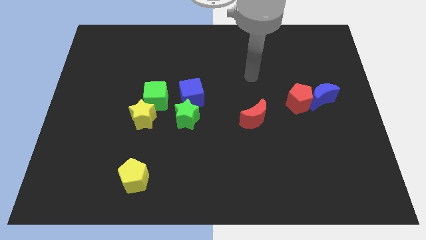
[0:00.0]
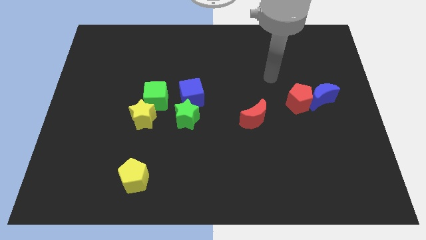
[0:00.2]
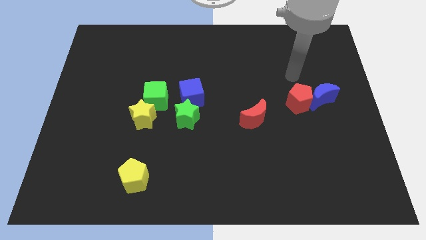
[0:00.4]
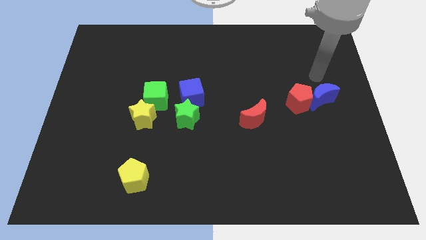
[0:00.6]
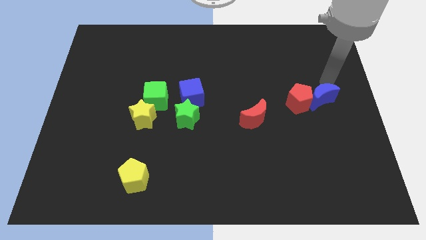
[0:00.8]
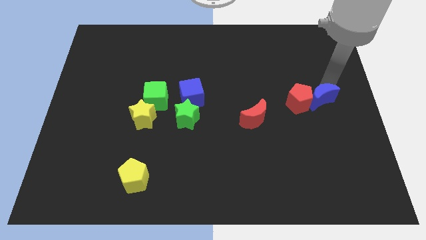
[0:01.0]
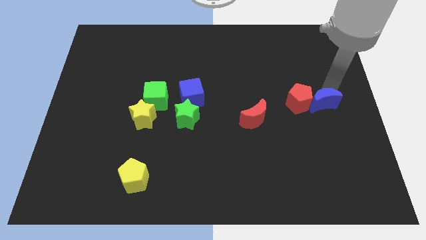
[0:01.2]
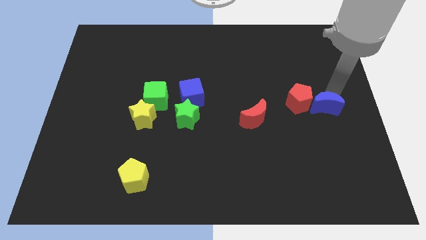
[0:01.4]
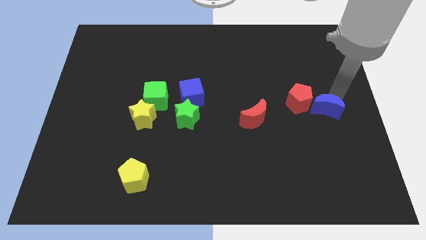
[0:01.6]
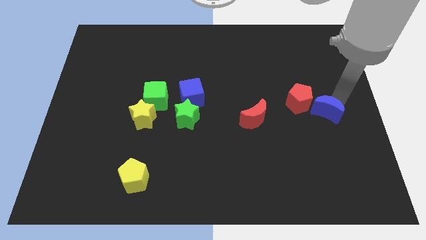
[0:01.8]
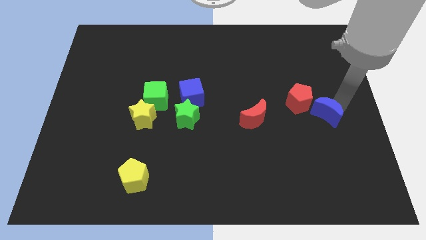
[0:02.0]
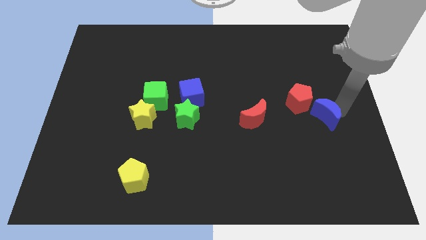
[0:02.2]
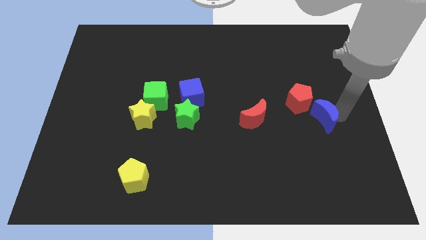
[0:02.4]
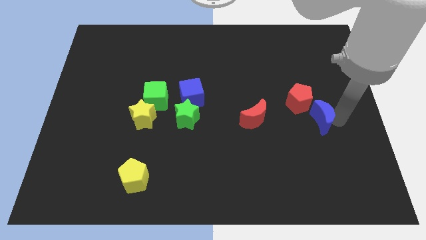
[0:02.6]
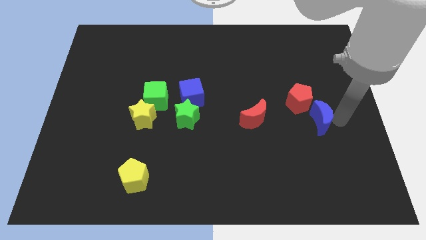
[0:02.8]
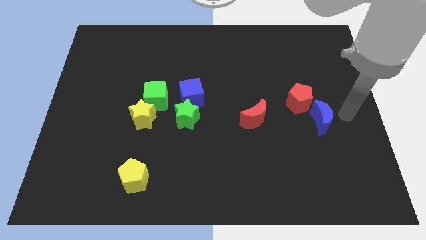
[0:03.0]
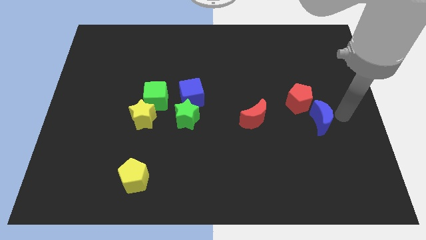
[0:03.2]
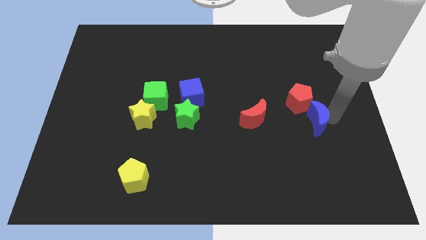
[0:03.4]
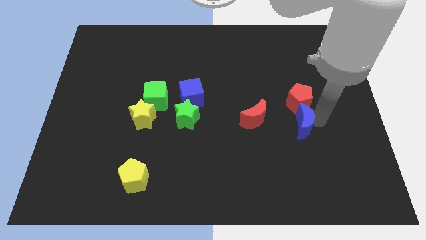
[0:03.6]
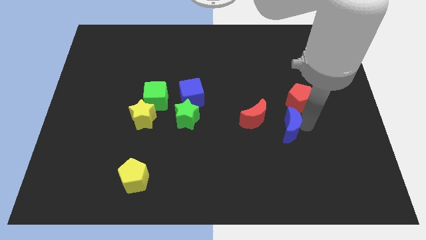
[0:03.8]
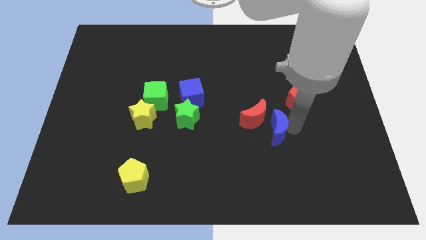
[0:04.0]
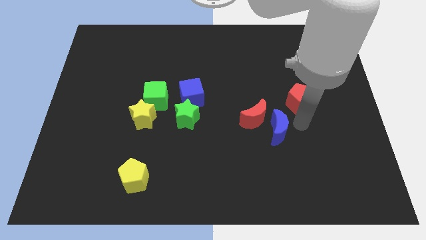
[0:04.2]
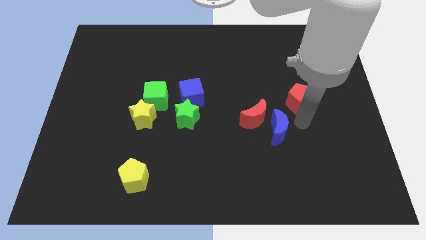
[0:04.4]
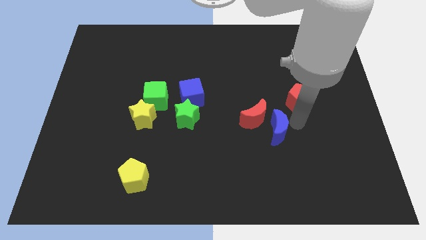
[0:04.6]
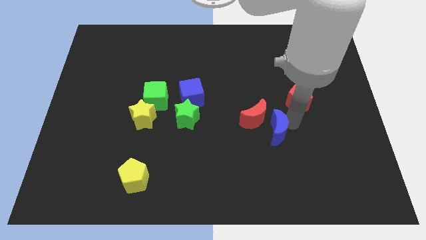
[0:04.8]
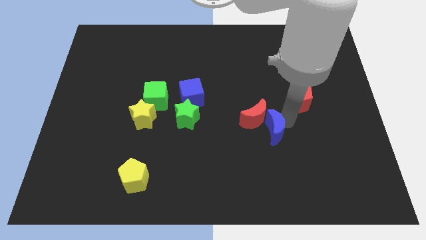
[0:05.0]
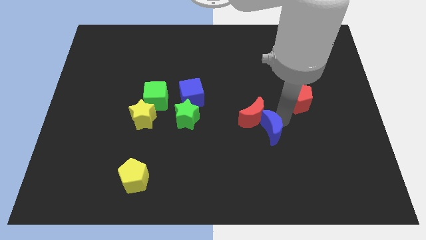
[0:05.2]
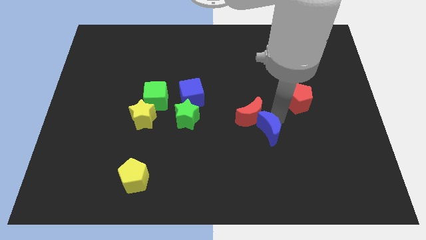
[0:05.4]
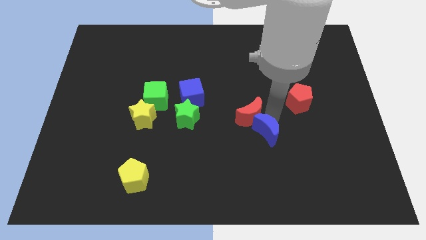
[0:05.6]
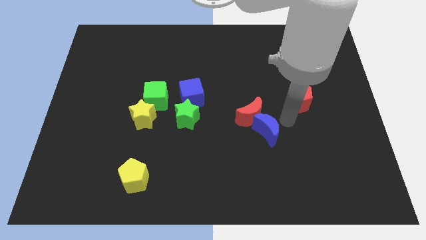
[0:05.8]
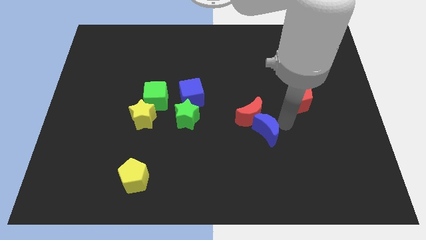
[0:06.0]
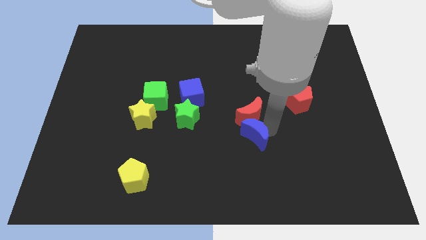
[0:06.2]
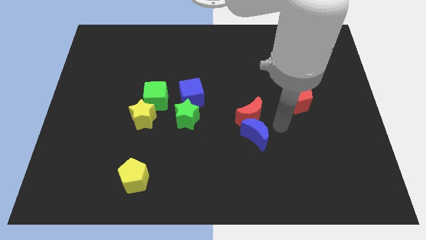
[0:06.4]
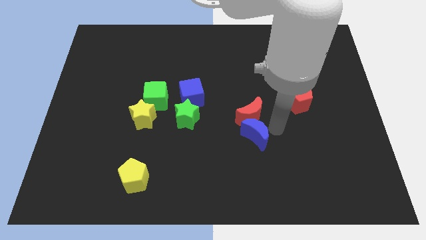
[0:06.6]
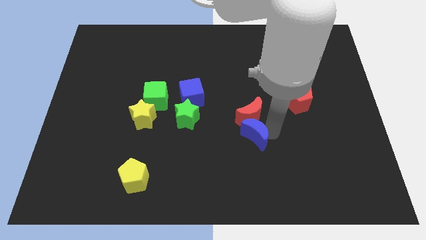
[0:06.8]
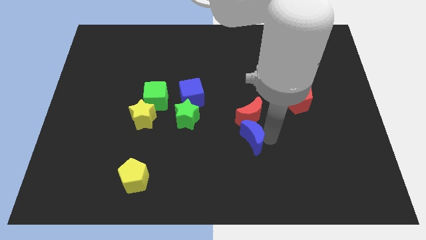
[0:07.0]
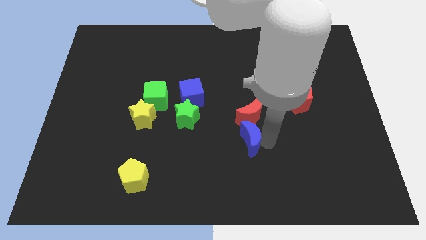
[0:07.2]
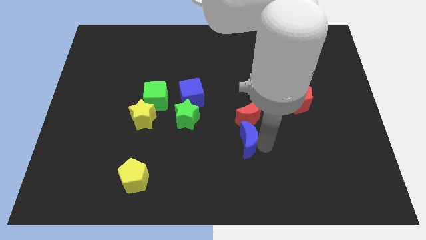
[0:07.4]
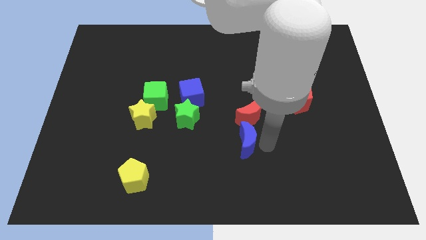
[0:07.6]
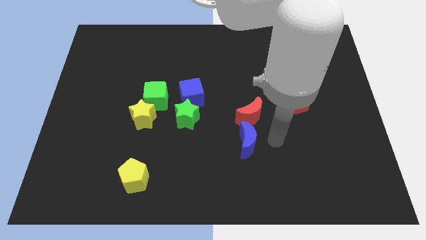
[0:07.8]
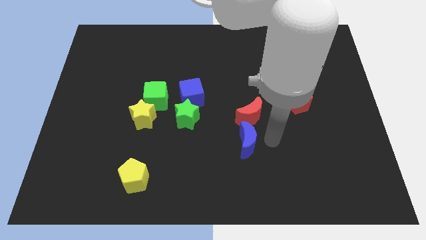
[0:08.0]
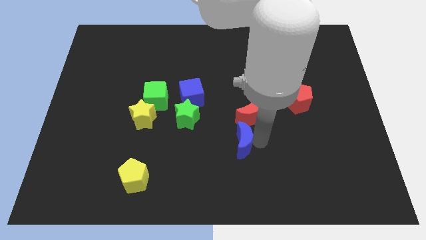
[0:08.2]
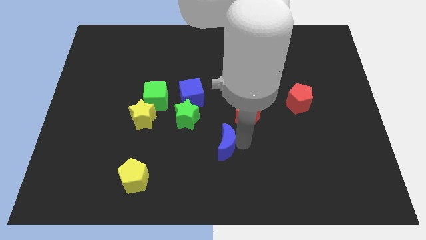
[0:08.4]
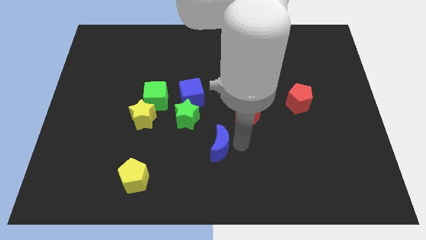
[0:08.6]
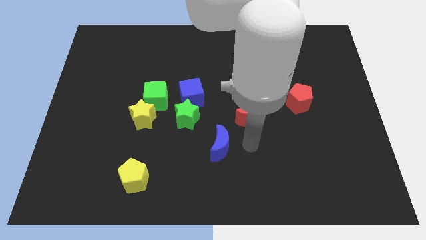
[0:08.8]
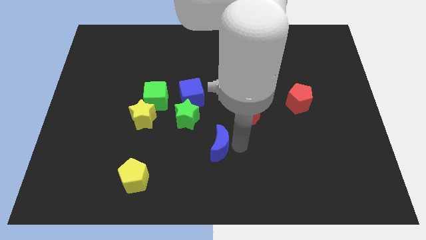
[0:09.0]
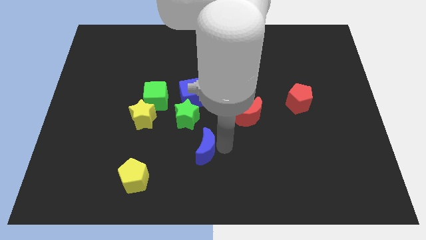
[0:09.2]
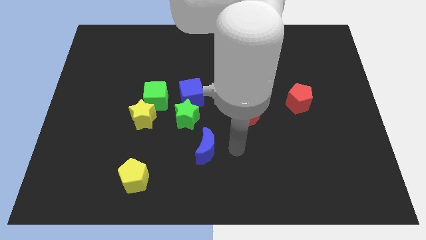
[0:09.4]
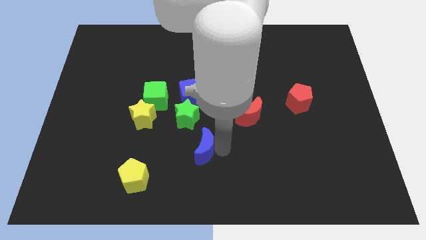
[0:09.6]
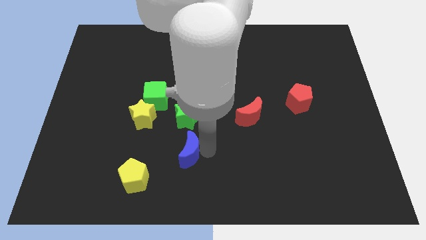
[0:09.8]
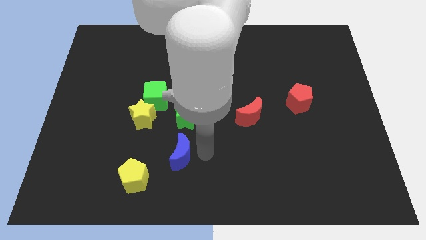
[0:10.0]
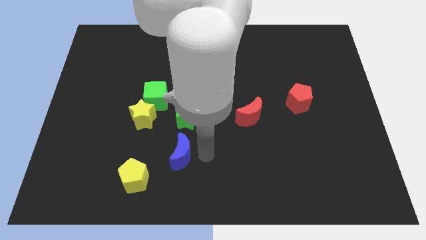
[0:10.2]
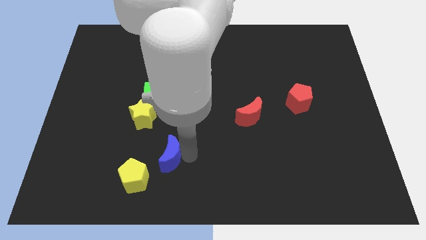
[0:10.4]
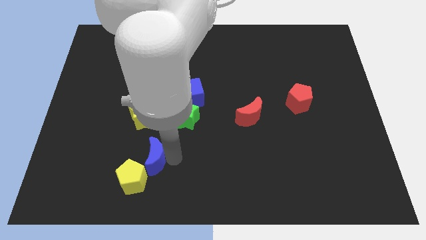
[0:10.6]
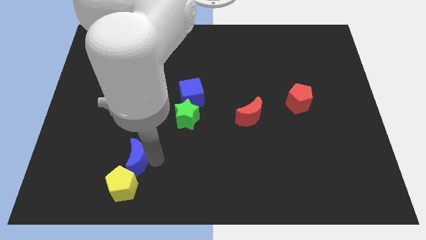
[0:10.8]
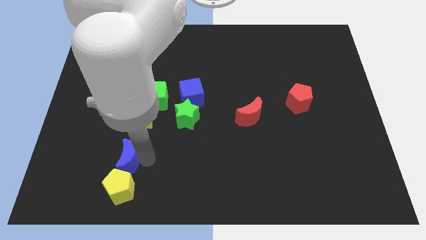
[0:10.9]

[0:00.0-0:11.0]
put the blue moon to the top left of the yellow pentagon

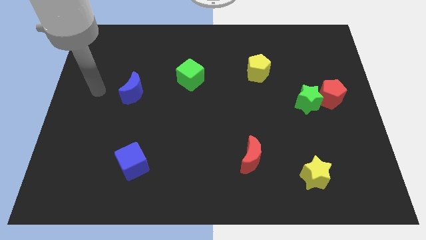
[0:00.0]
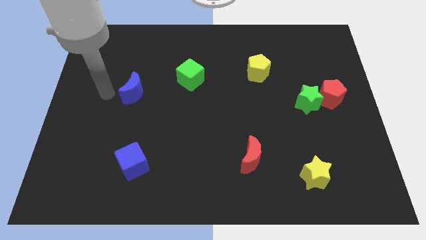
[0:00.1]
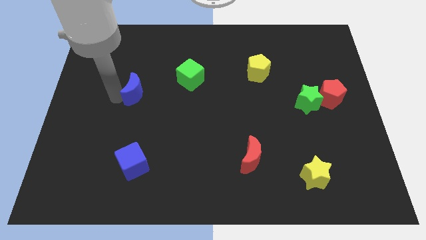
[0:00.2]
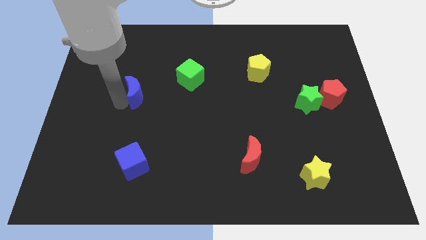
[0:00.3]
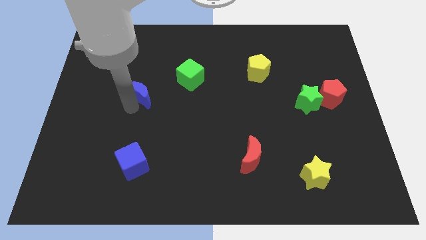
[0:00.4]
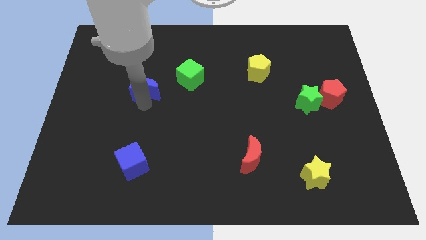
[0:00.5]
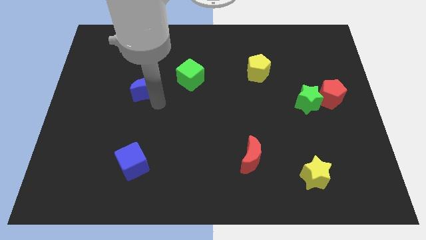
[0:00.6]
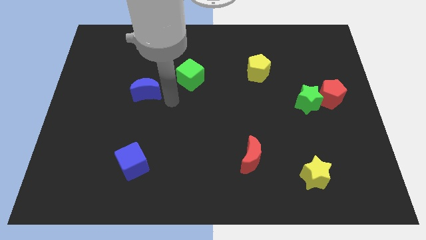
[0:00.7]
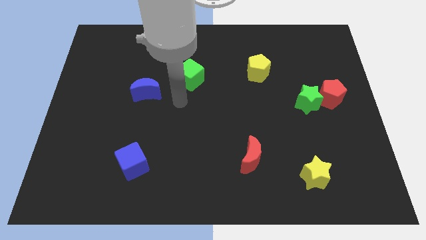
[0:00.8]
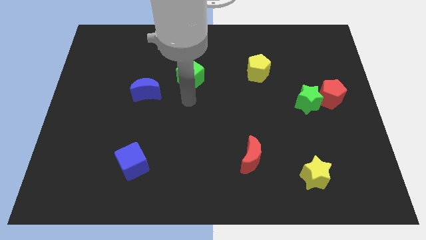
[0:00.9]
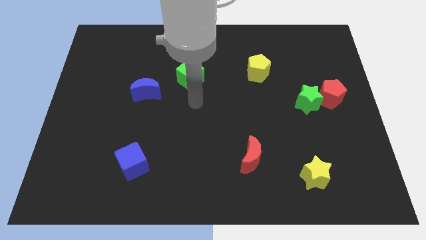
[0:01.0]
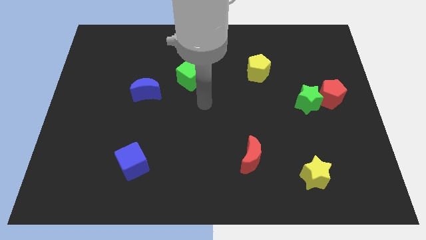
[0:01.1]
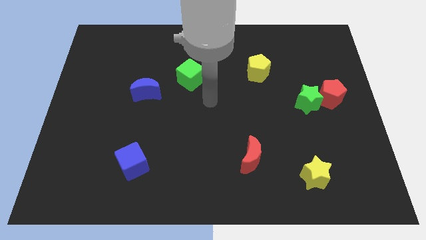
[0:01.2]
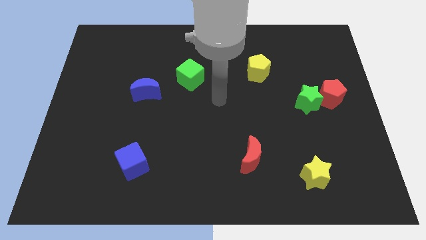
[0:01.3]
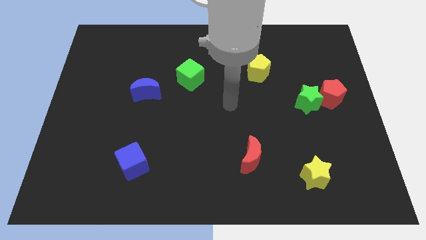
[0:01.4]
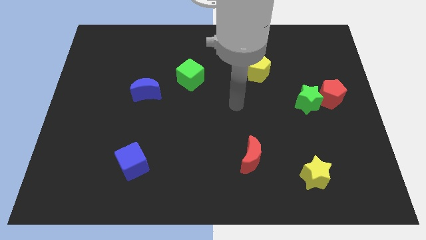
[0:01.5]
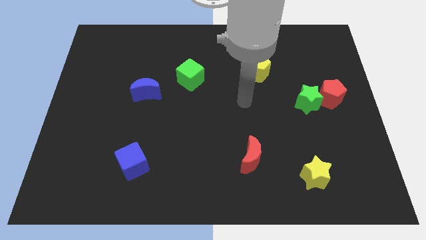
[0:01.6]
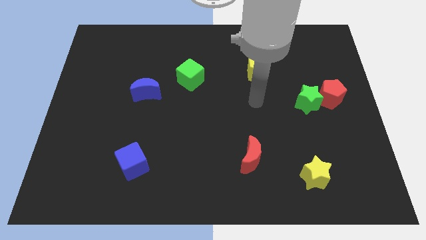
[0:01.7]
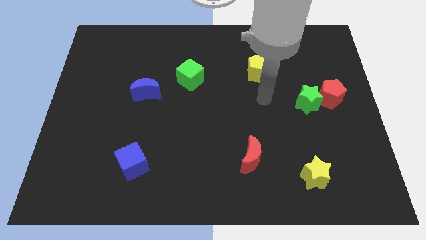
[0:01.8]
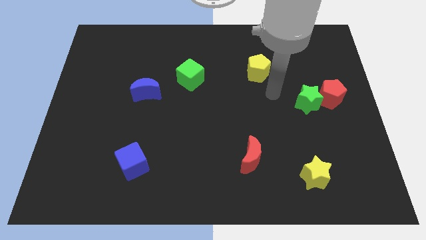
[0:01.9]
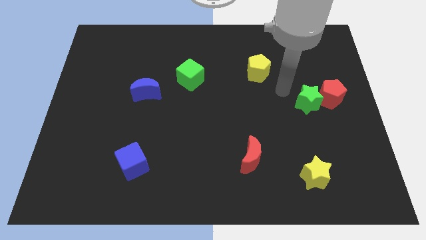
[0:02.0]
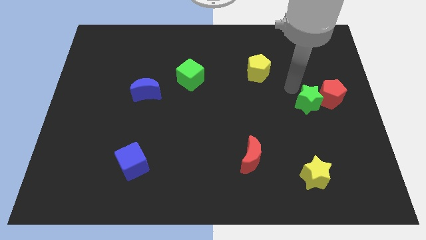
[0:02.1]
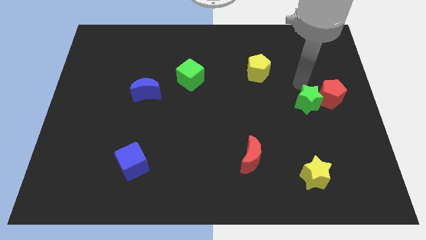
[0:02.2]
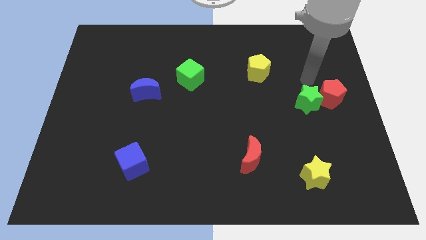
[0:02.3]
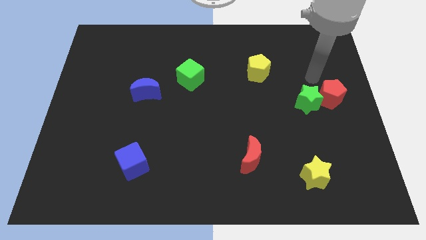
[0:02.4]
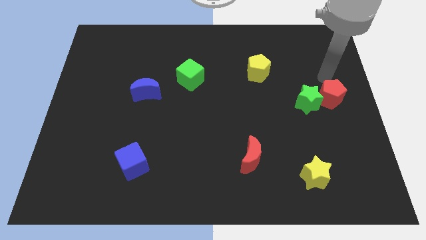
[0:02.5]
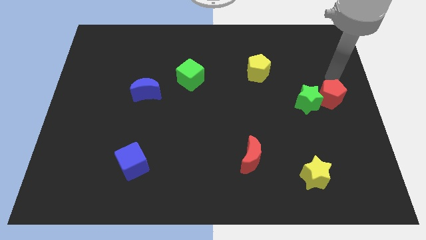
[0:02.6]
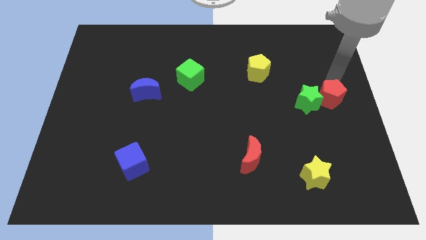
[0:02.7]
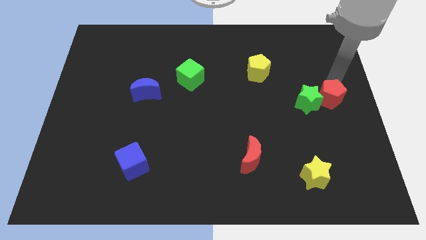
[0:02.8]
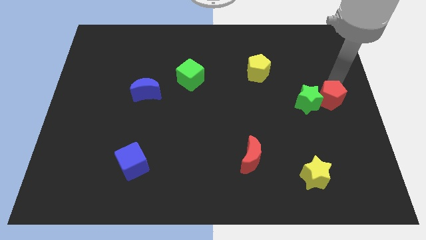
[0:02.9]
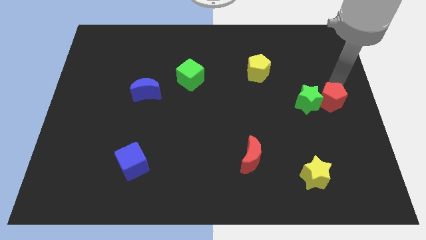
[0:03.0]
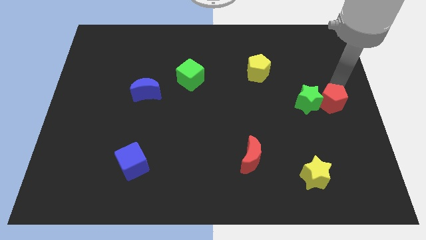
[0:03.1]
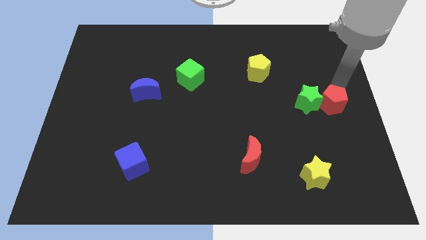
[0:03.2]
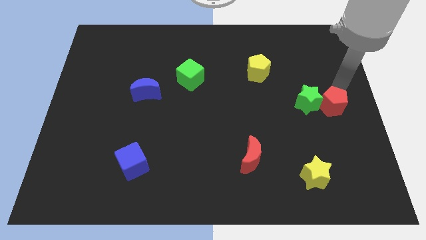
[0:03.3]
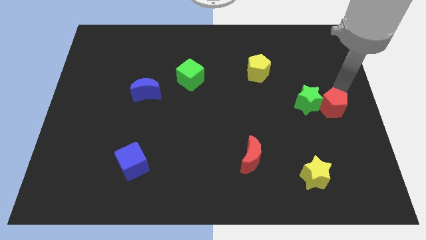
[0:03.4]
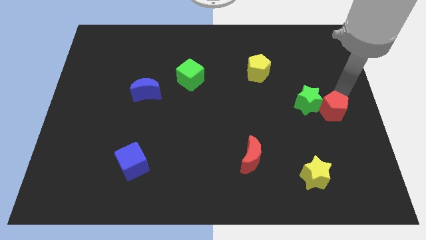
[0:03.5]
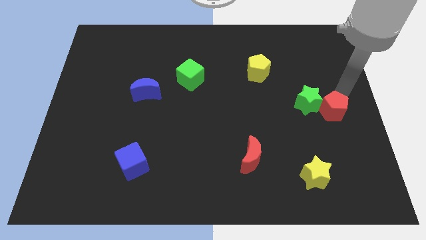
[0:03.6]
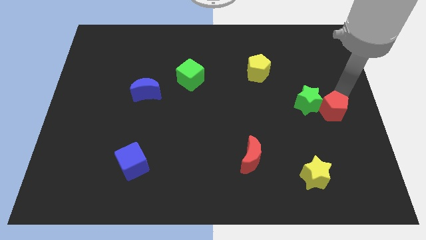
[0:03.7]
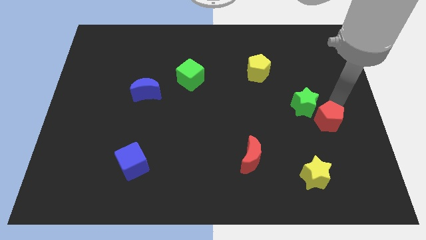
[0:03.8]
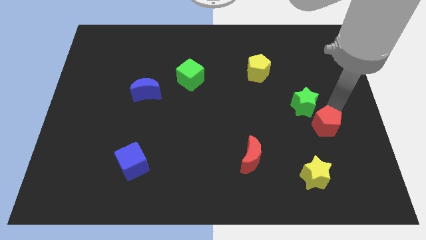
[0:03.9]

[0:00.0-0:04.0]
put the red pentagon to the bottom side of the green star
